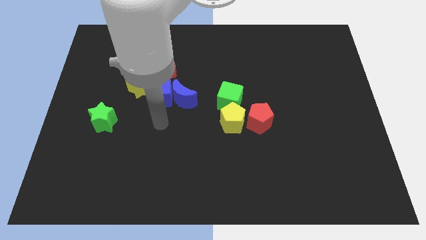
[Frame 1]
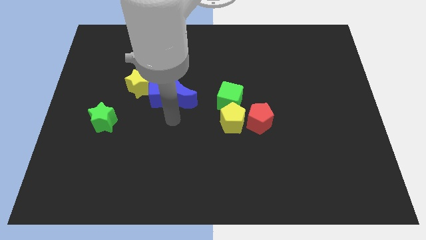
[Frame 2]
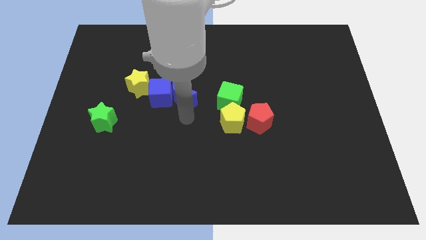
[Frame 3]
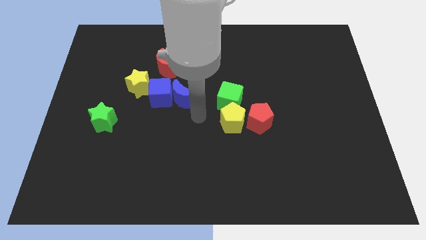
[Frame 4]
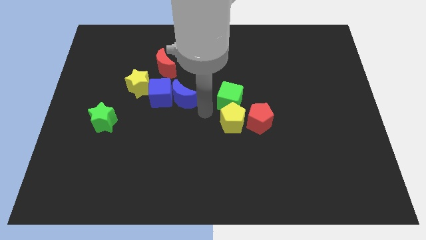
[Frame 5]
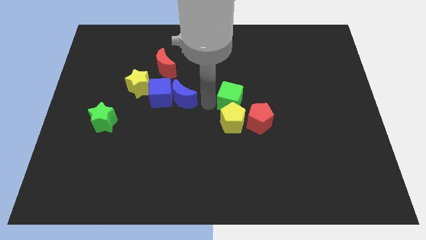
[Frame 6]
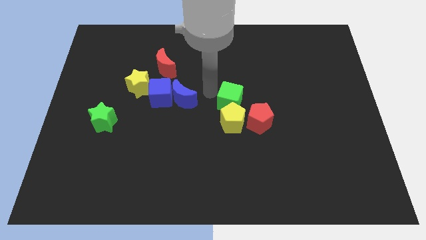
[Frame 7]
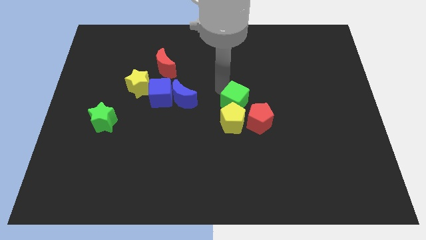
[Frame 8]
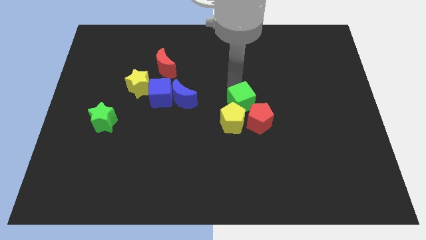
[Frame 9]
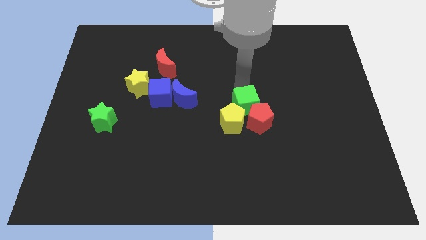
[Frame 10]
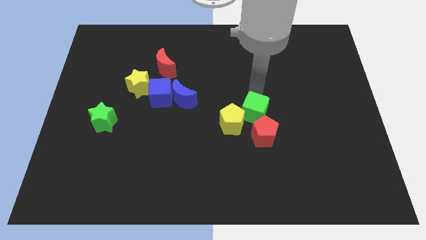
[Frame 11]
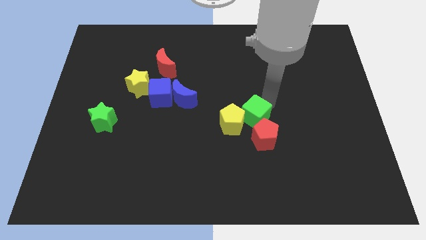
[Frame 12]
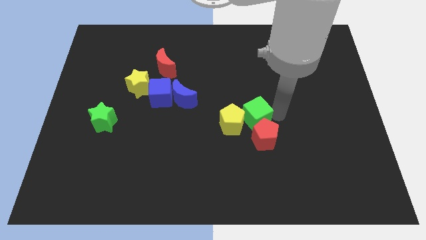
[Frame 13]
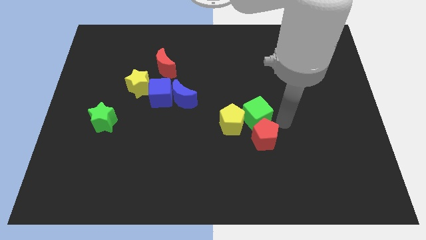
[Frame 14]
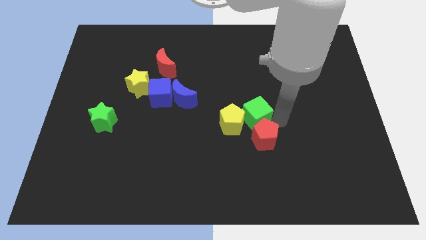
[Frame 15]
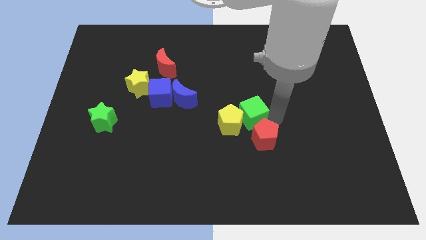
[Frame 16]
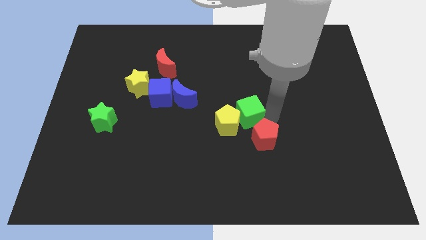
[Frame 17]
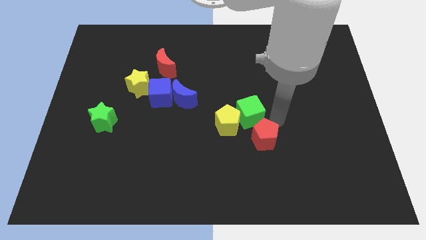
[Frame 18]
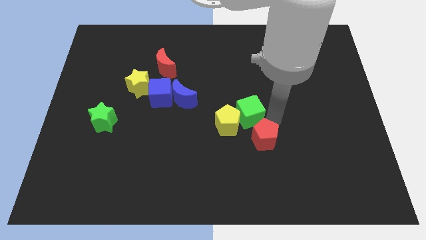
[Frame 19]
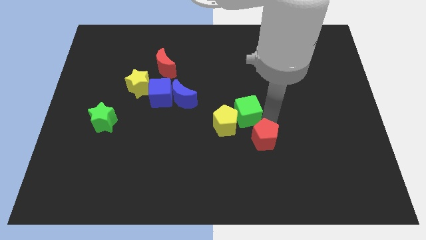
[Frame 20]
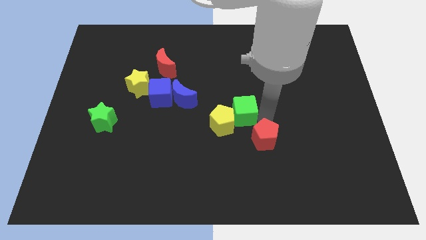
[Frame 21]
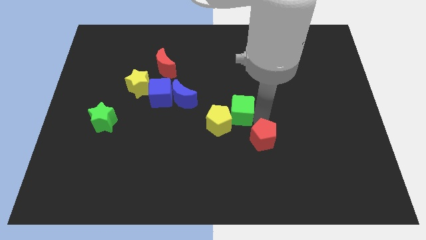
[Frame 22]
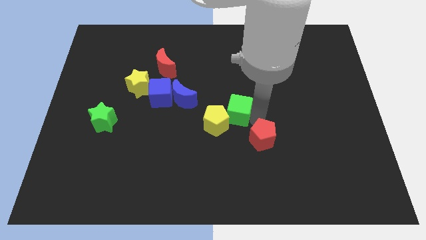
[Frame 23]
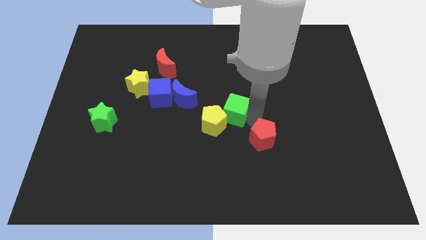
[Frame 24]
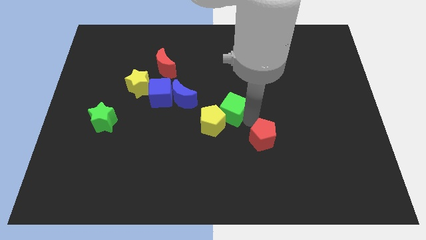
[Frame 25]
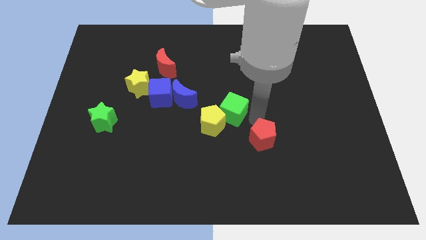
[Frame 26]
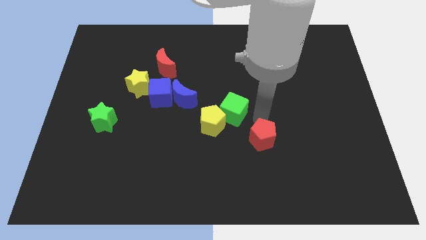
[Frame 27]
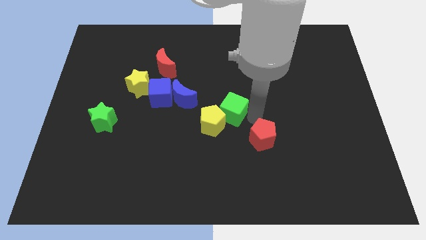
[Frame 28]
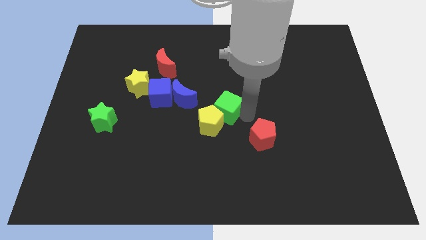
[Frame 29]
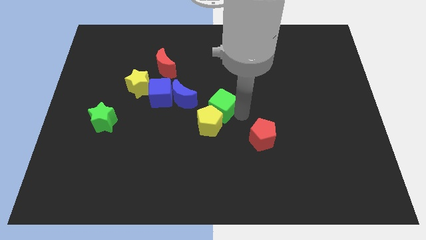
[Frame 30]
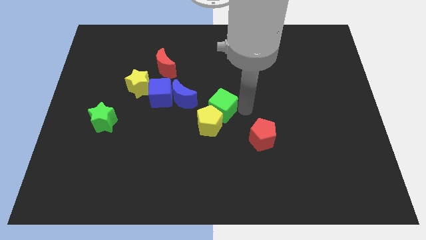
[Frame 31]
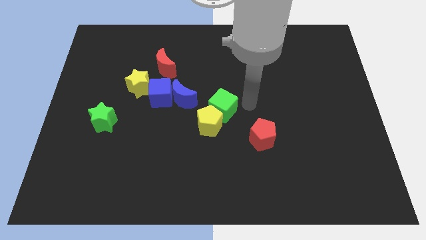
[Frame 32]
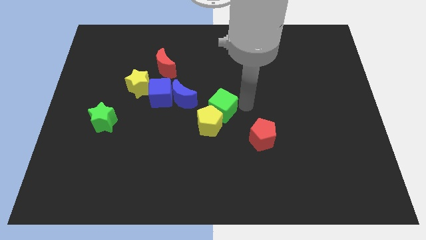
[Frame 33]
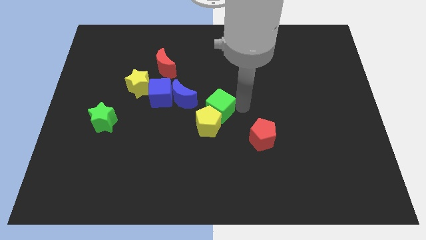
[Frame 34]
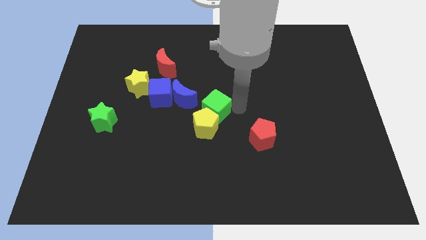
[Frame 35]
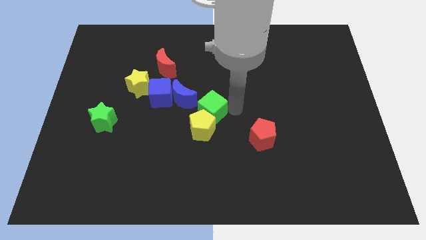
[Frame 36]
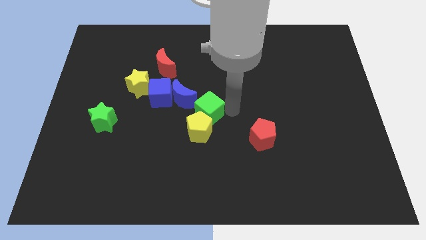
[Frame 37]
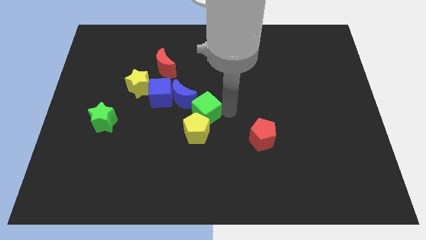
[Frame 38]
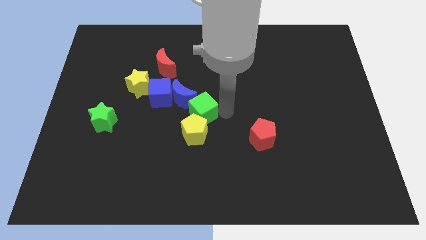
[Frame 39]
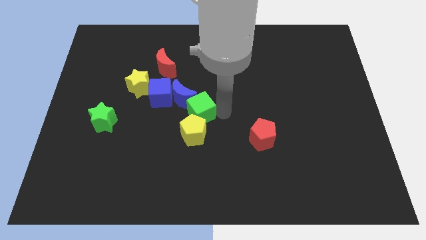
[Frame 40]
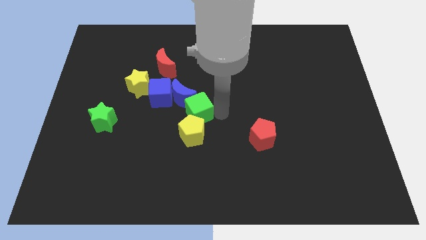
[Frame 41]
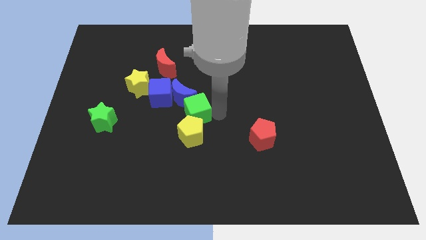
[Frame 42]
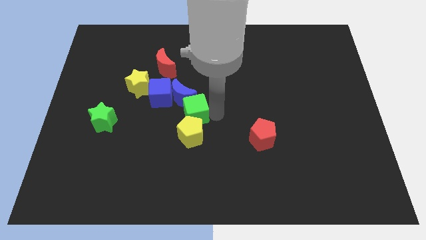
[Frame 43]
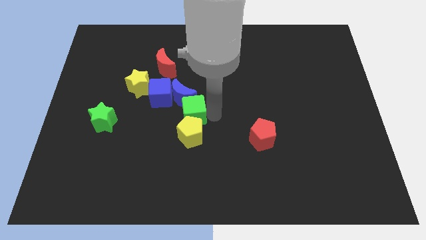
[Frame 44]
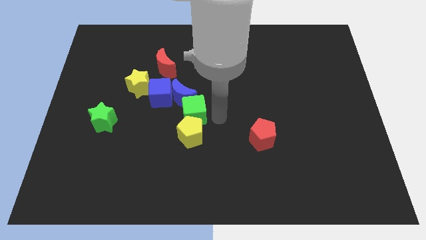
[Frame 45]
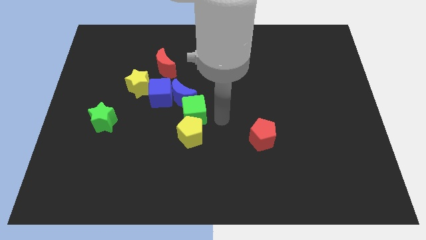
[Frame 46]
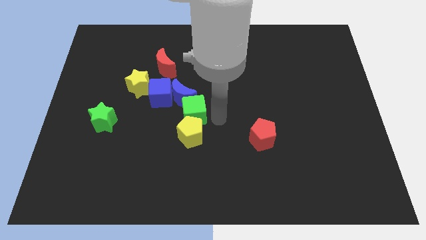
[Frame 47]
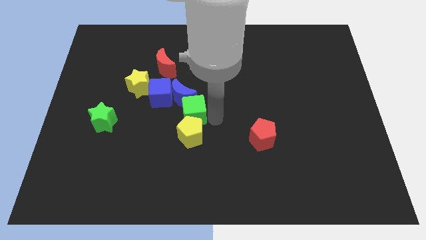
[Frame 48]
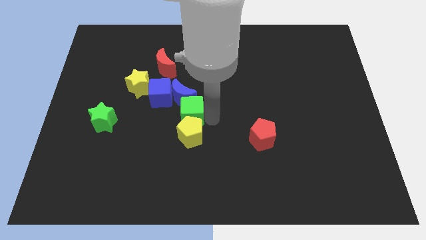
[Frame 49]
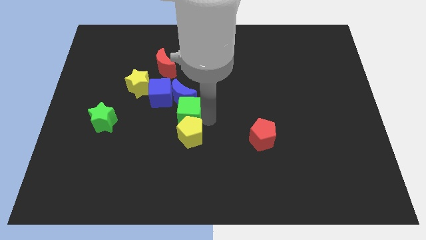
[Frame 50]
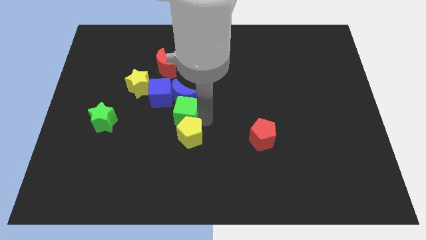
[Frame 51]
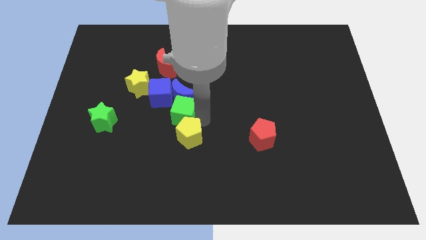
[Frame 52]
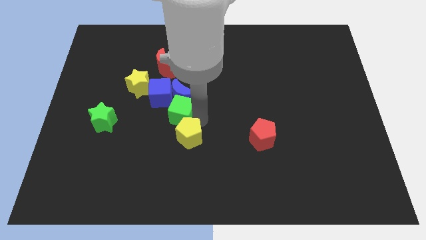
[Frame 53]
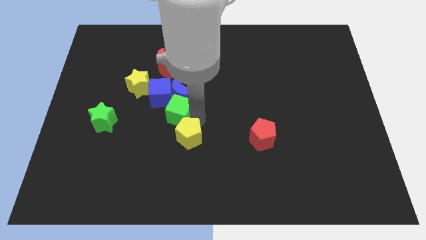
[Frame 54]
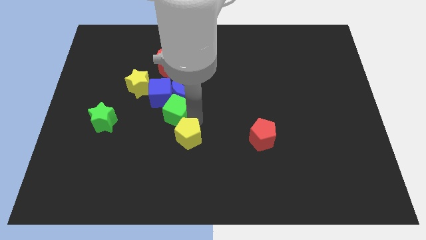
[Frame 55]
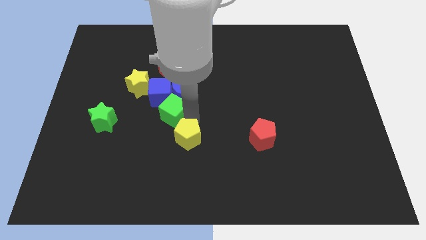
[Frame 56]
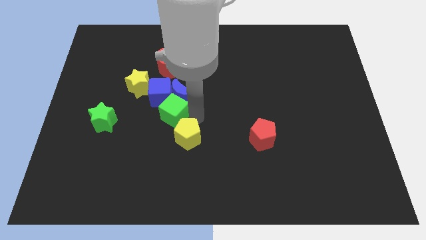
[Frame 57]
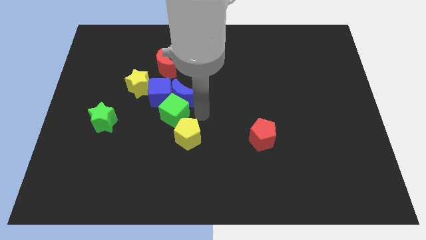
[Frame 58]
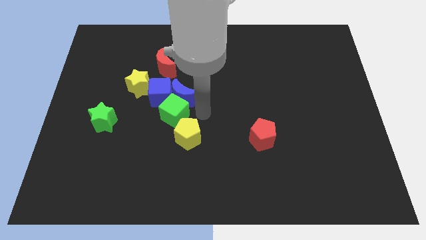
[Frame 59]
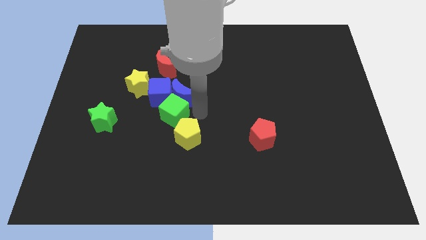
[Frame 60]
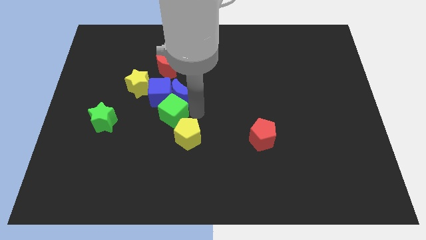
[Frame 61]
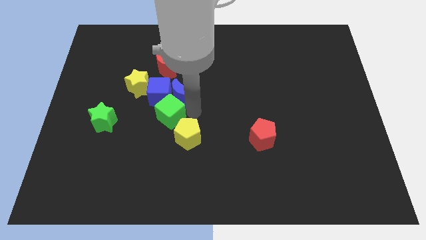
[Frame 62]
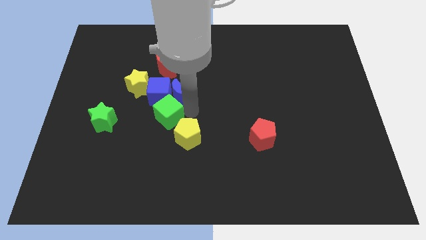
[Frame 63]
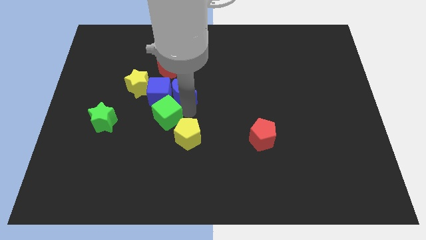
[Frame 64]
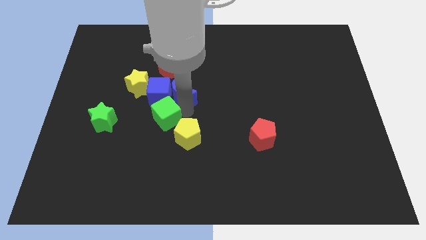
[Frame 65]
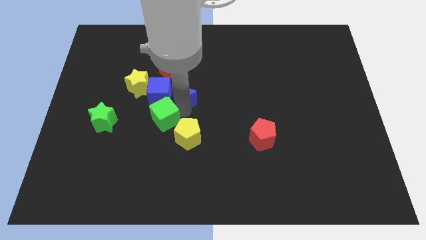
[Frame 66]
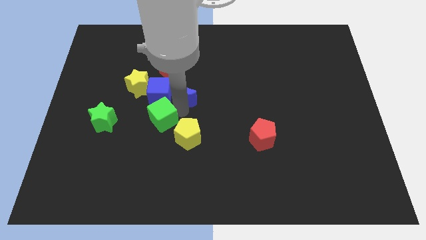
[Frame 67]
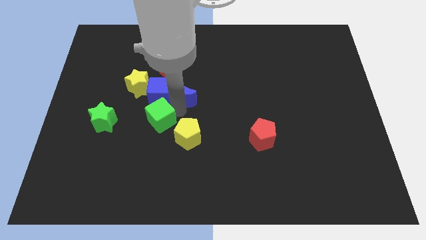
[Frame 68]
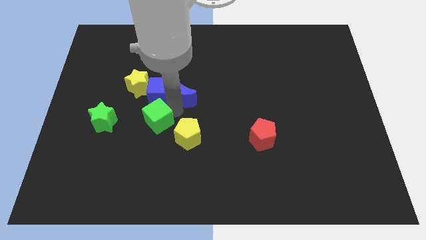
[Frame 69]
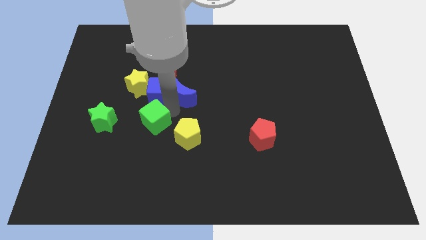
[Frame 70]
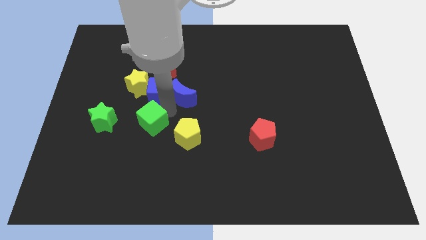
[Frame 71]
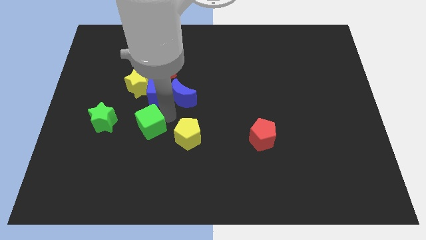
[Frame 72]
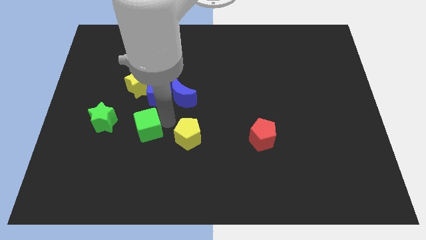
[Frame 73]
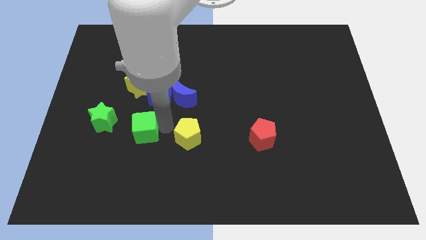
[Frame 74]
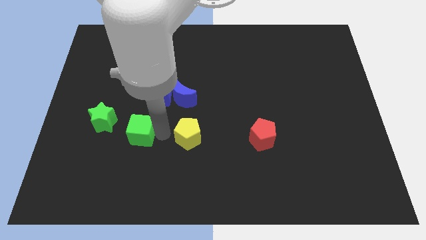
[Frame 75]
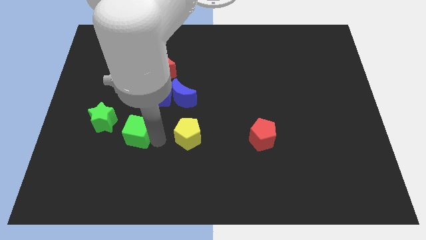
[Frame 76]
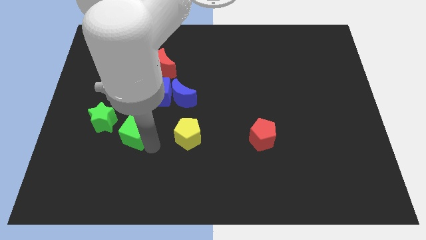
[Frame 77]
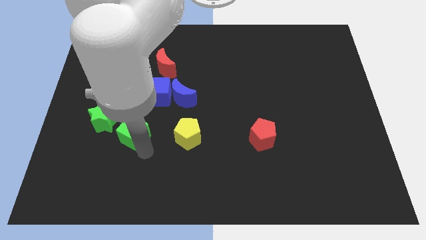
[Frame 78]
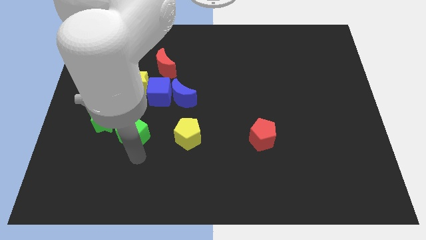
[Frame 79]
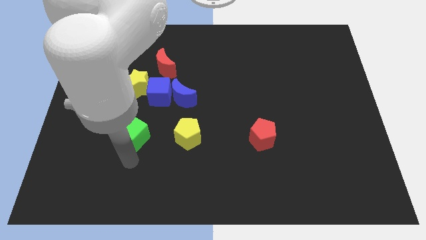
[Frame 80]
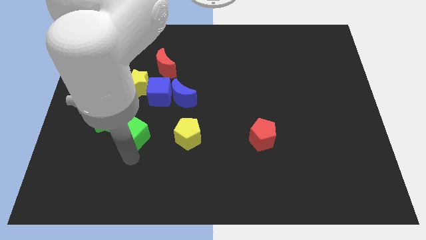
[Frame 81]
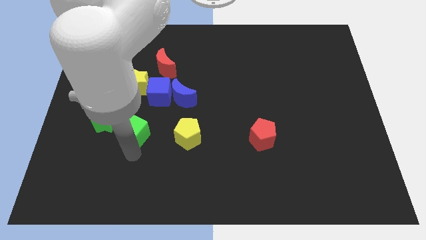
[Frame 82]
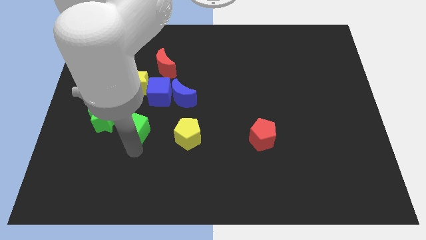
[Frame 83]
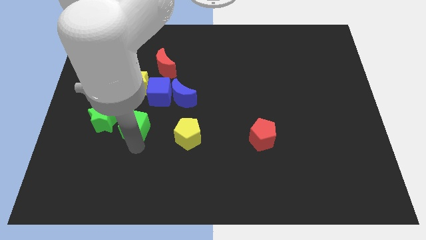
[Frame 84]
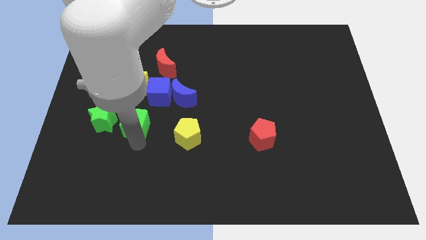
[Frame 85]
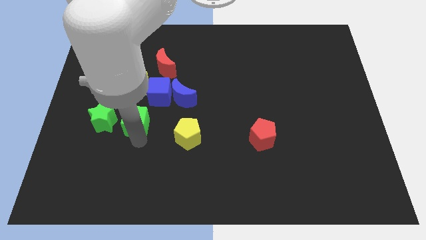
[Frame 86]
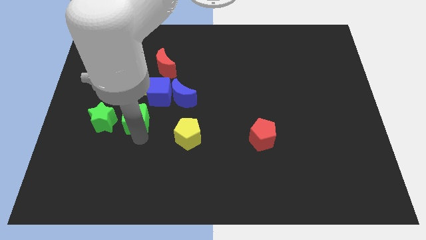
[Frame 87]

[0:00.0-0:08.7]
push the green cube left
